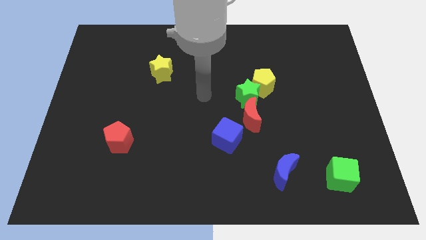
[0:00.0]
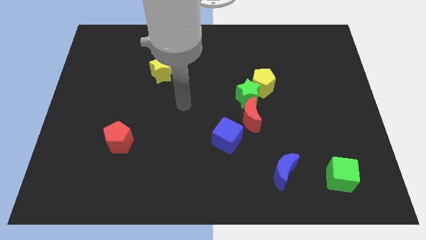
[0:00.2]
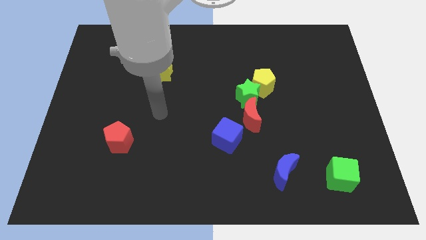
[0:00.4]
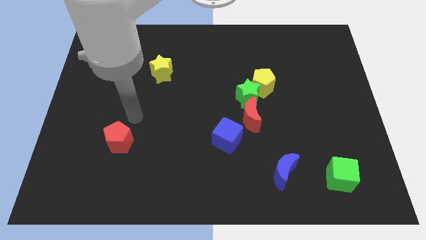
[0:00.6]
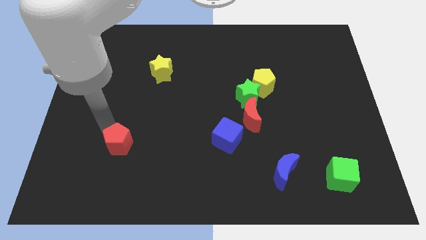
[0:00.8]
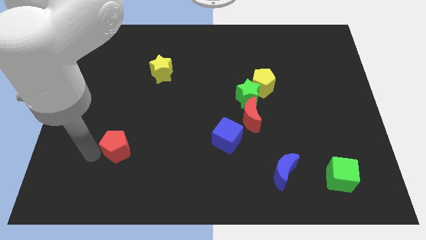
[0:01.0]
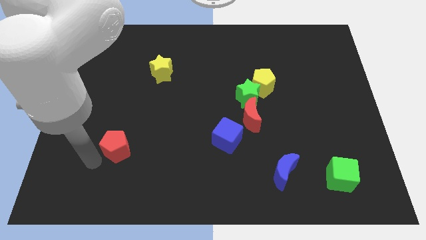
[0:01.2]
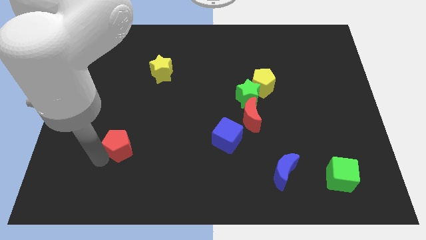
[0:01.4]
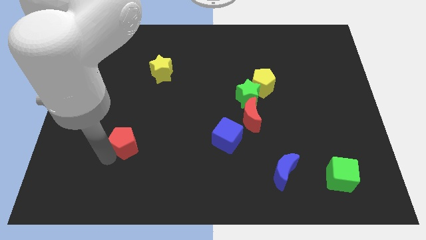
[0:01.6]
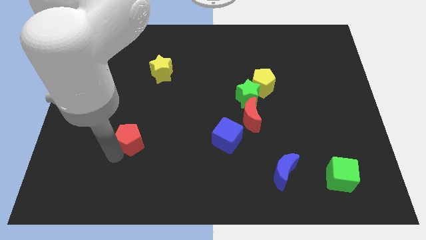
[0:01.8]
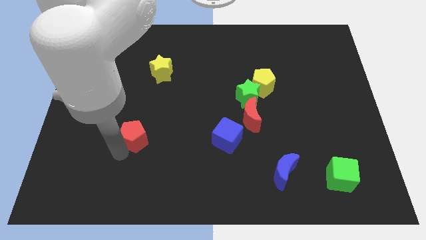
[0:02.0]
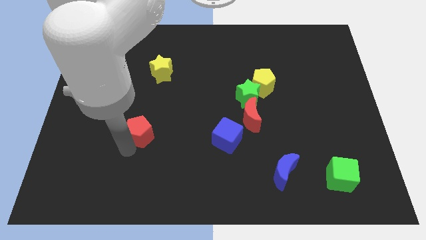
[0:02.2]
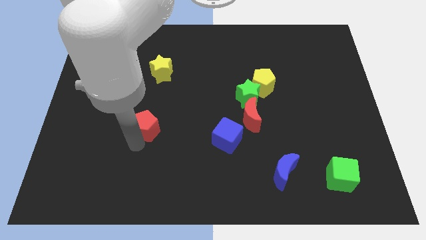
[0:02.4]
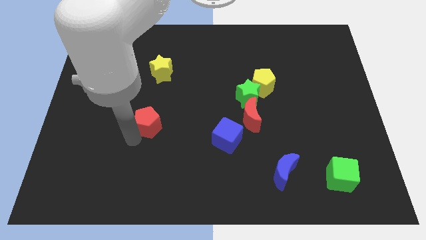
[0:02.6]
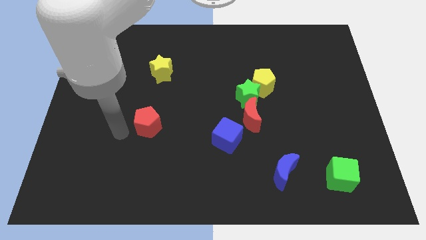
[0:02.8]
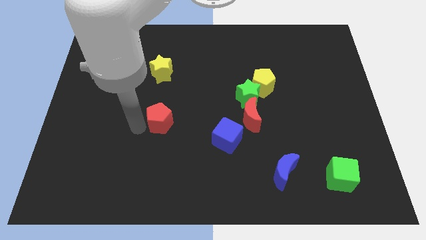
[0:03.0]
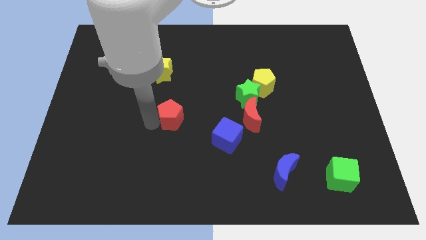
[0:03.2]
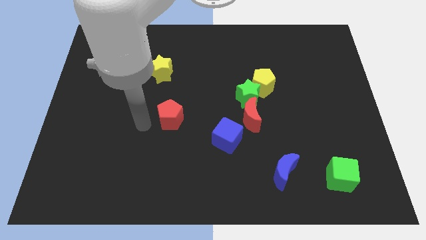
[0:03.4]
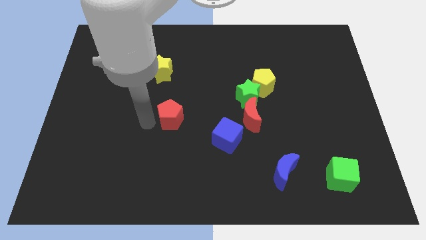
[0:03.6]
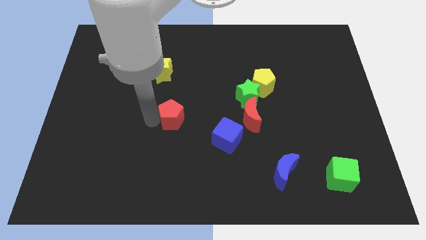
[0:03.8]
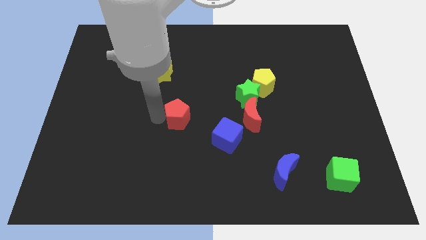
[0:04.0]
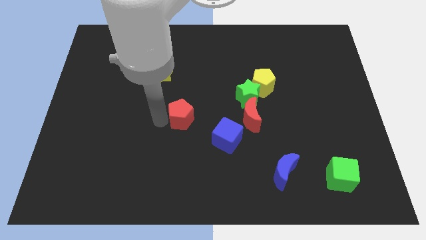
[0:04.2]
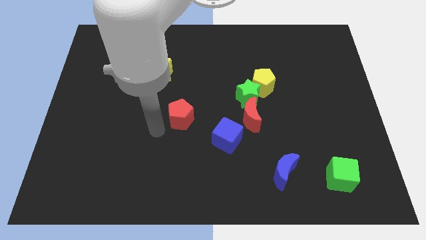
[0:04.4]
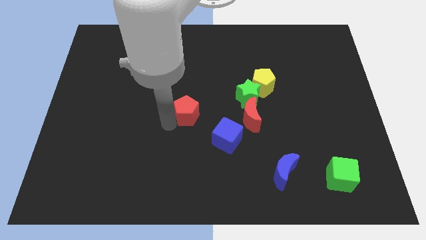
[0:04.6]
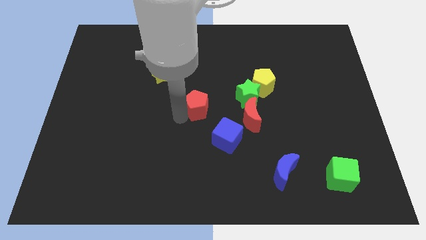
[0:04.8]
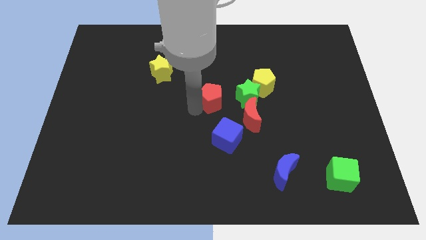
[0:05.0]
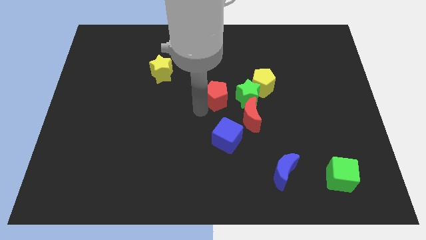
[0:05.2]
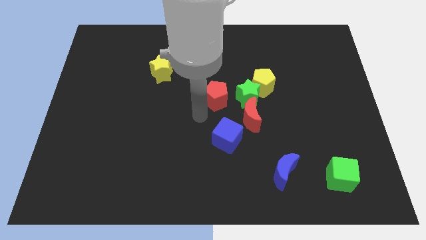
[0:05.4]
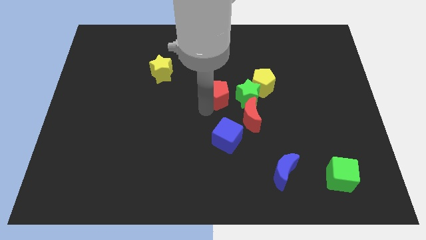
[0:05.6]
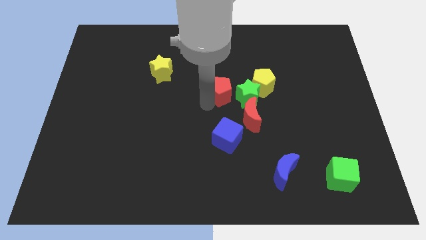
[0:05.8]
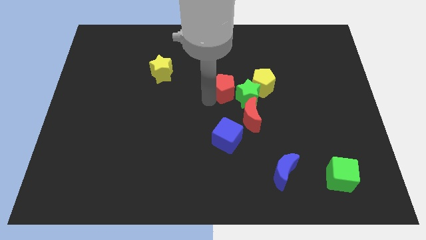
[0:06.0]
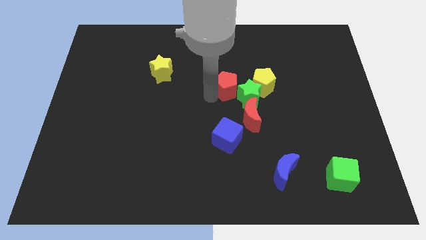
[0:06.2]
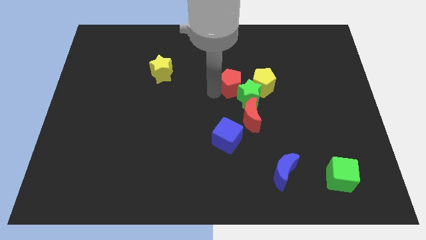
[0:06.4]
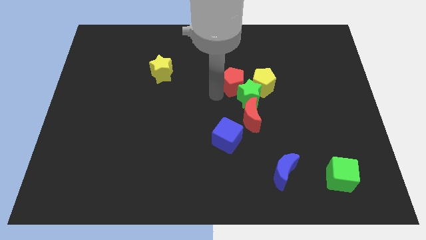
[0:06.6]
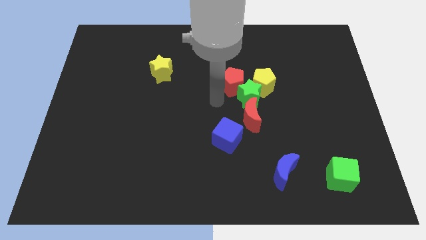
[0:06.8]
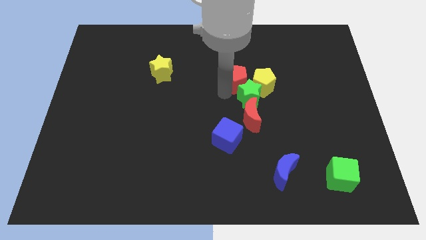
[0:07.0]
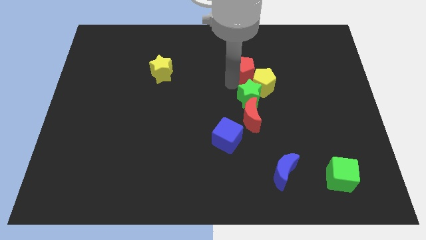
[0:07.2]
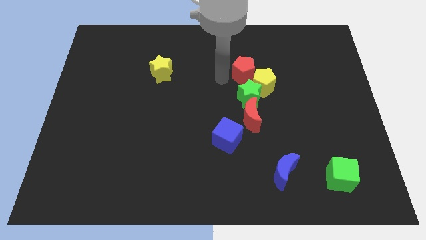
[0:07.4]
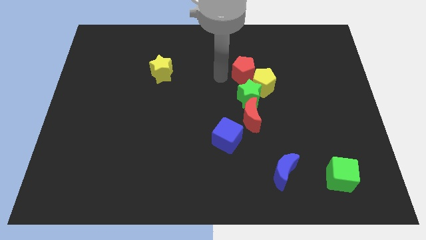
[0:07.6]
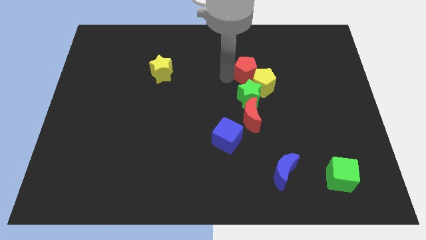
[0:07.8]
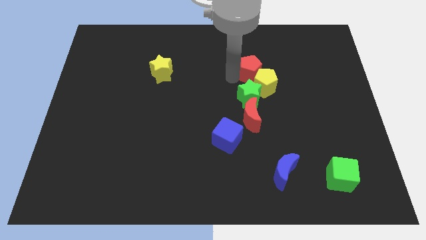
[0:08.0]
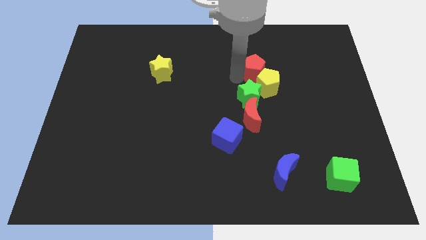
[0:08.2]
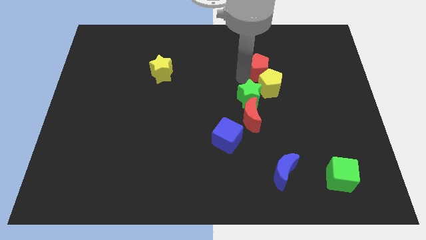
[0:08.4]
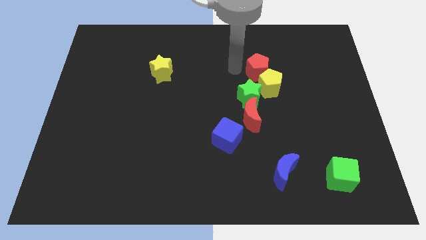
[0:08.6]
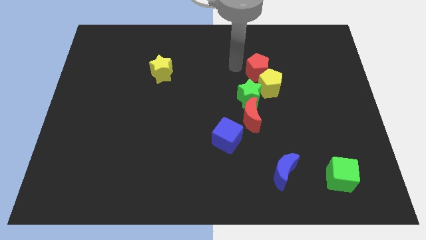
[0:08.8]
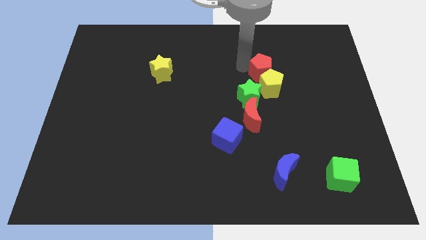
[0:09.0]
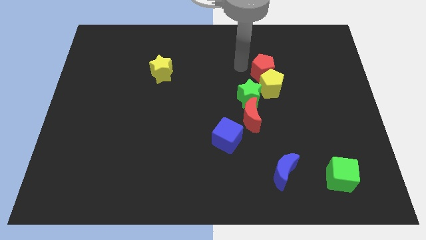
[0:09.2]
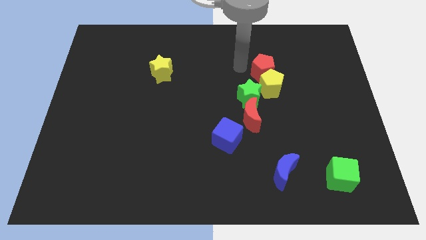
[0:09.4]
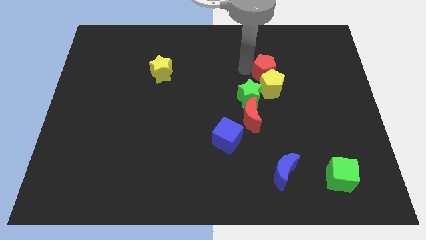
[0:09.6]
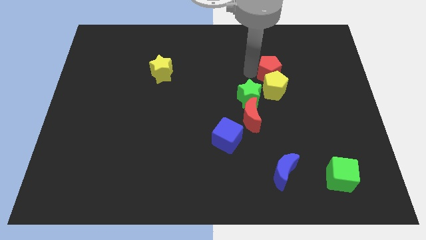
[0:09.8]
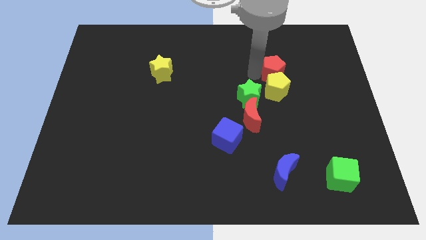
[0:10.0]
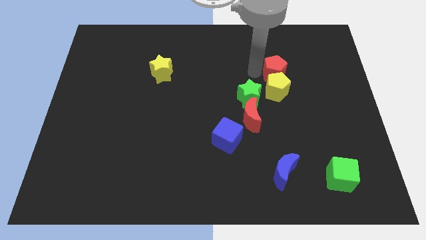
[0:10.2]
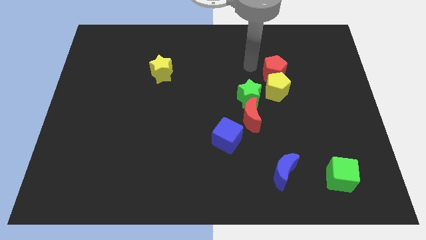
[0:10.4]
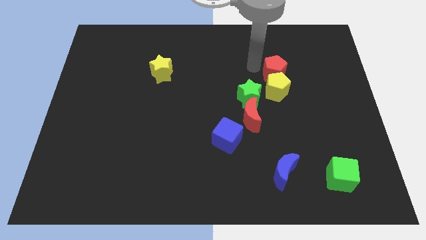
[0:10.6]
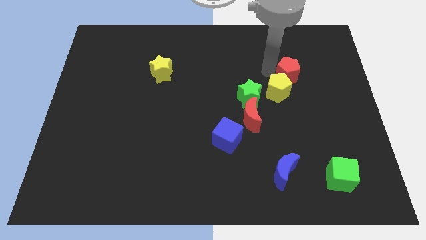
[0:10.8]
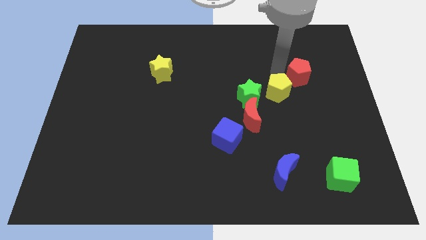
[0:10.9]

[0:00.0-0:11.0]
move the red pentagon to the right of the yellow pentagon

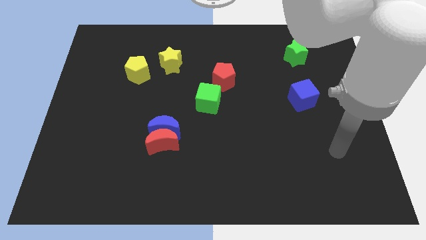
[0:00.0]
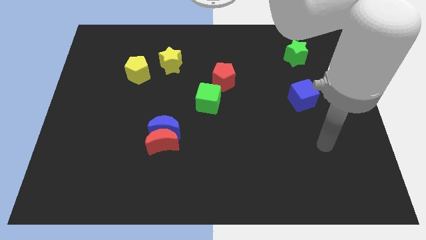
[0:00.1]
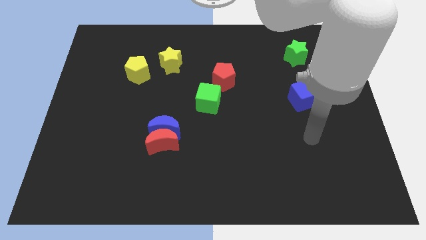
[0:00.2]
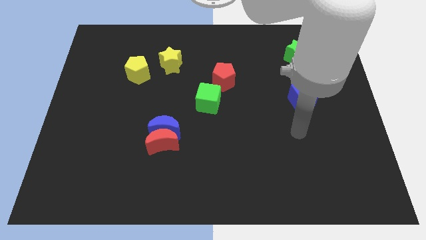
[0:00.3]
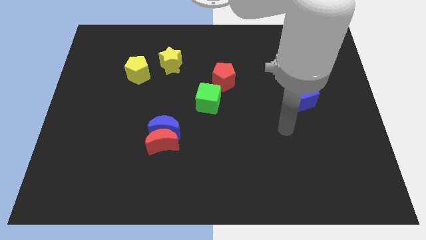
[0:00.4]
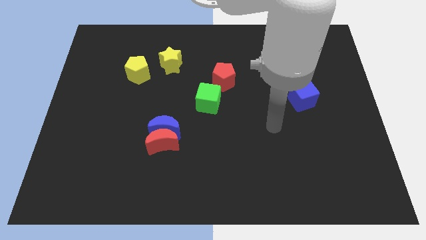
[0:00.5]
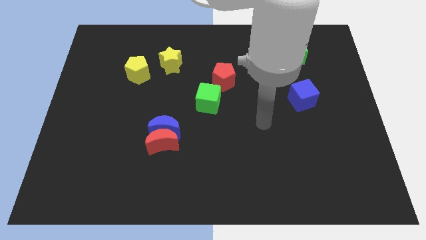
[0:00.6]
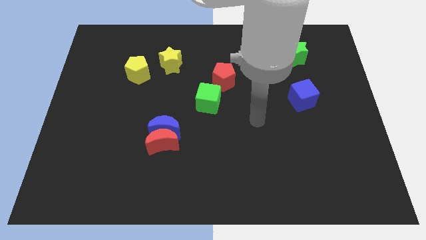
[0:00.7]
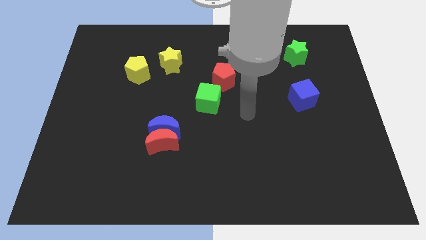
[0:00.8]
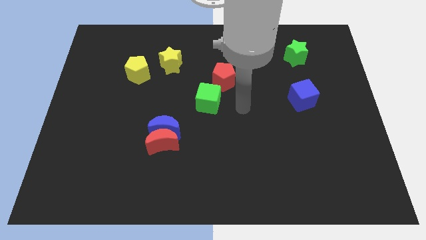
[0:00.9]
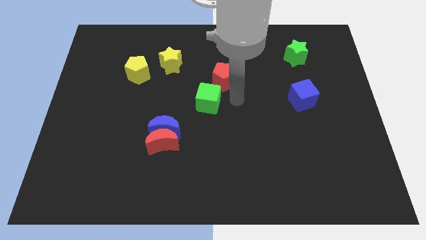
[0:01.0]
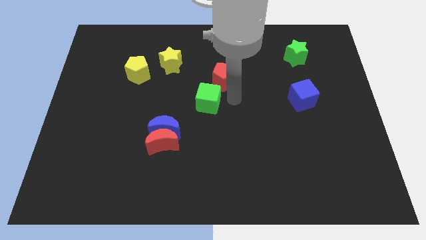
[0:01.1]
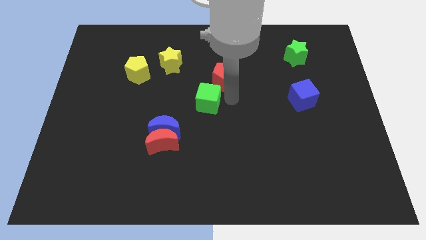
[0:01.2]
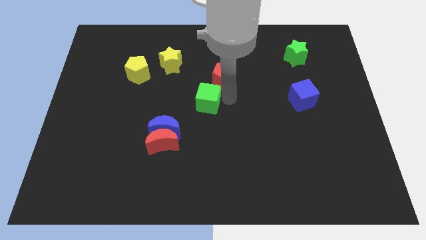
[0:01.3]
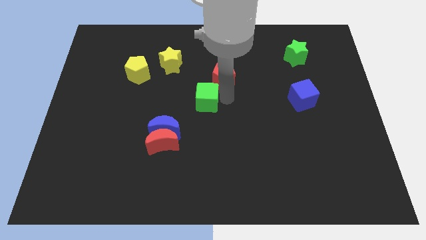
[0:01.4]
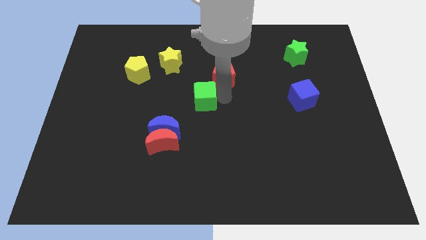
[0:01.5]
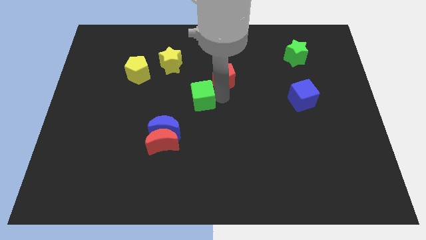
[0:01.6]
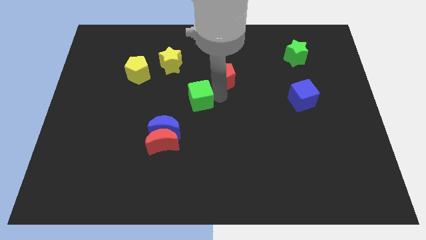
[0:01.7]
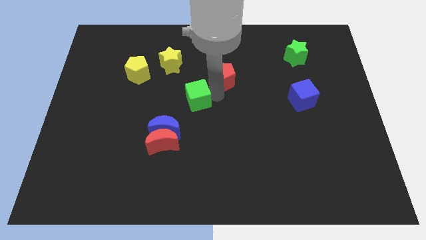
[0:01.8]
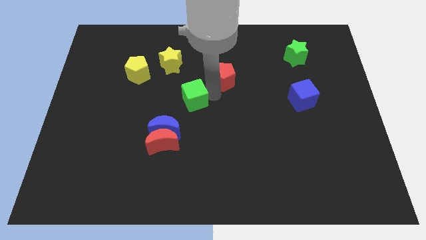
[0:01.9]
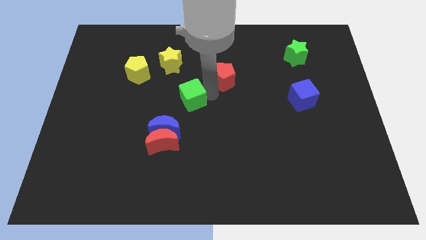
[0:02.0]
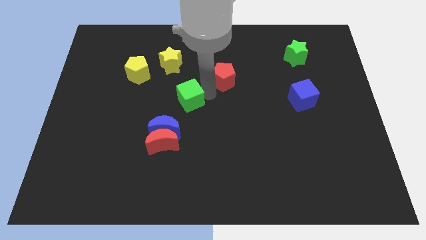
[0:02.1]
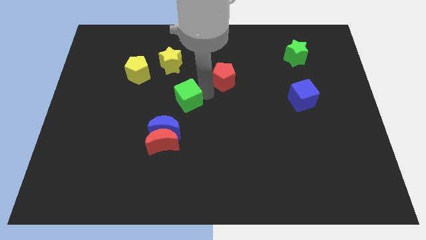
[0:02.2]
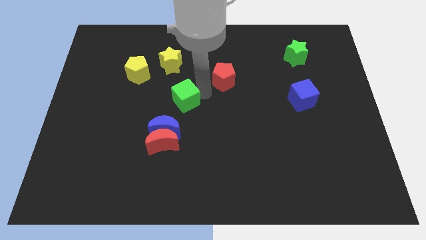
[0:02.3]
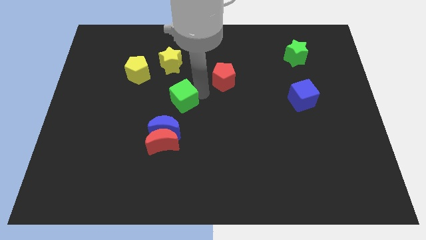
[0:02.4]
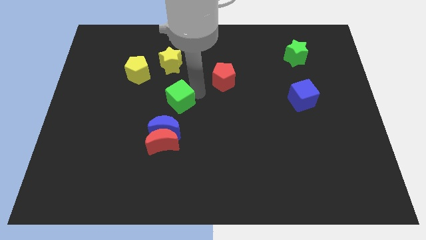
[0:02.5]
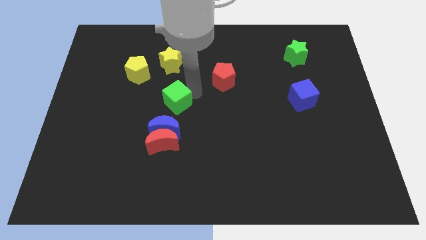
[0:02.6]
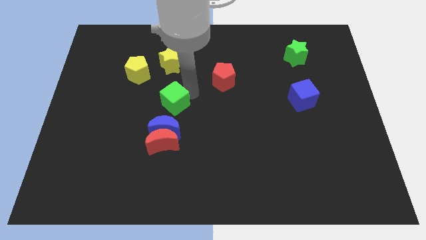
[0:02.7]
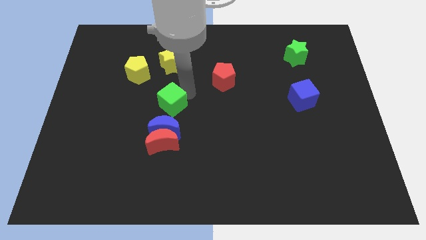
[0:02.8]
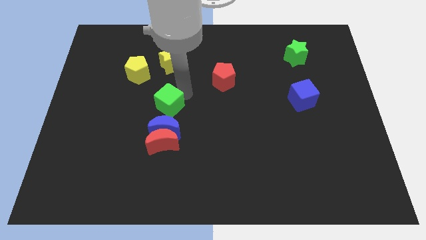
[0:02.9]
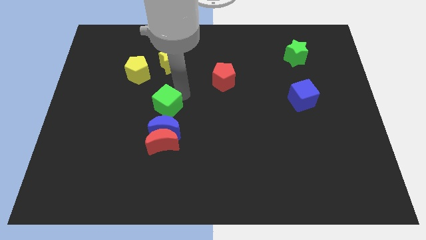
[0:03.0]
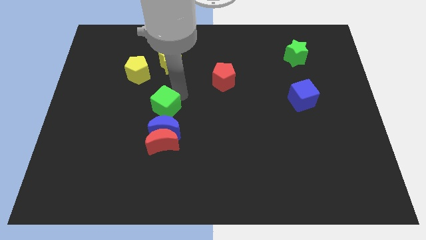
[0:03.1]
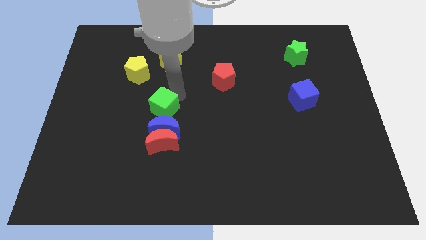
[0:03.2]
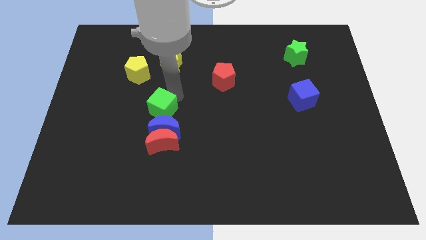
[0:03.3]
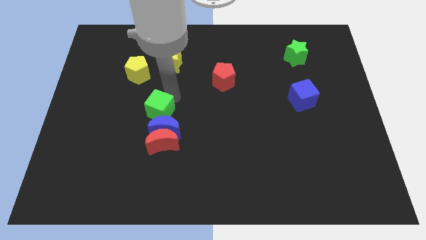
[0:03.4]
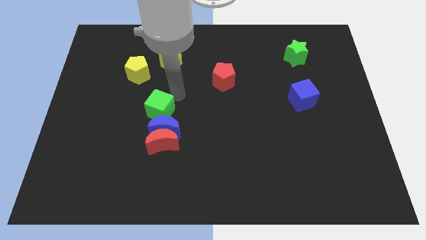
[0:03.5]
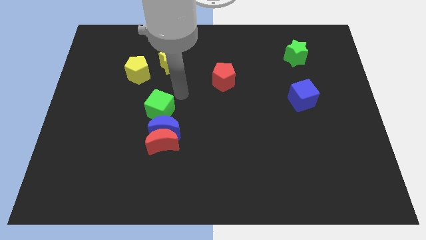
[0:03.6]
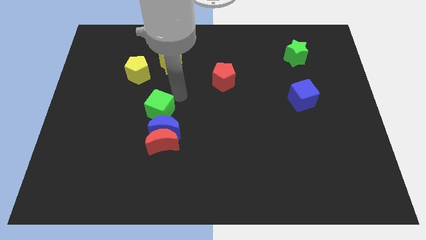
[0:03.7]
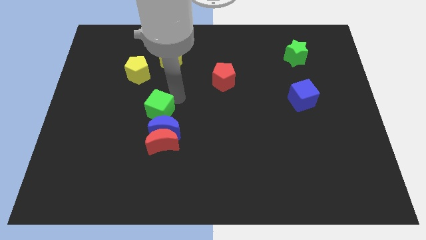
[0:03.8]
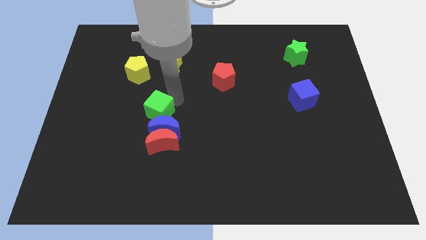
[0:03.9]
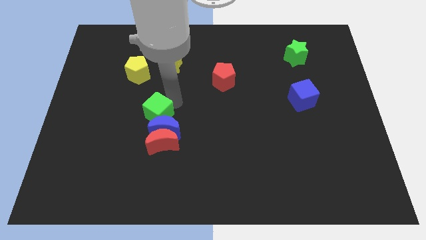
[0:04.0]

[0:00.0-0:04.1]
move the green cube to the top left of the red moon
